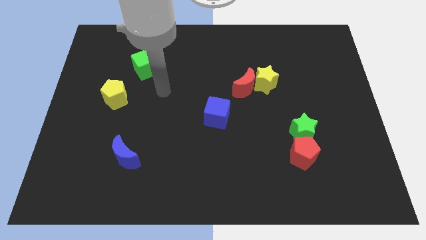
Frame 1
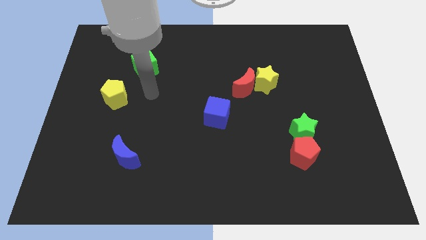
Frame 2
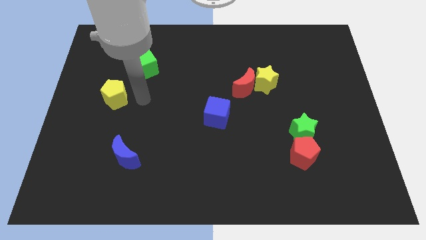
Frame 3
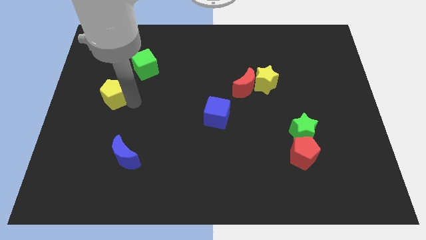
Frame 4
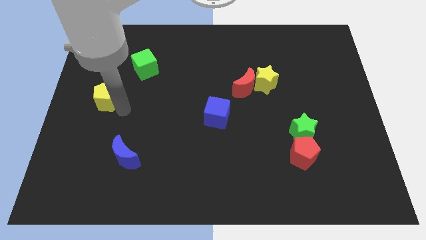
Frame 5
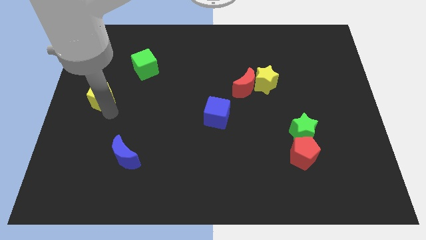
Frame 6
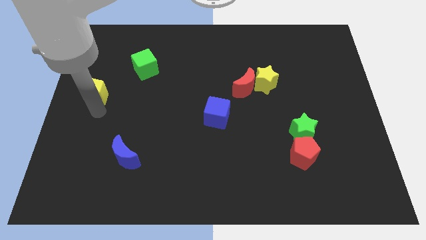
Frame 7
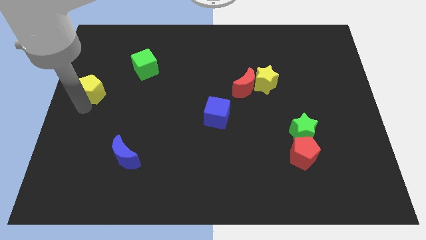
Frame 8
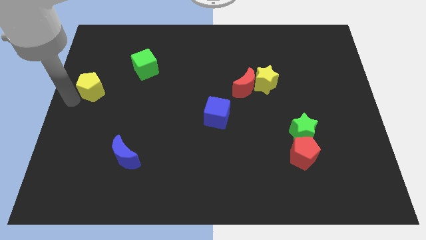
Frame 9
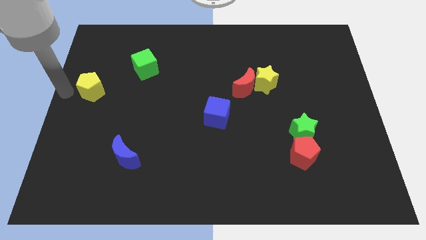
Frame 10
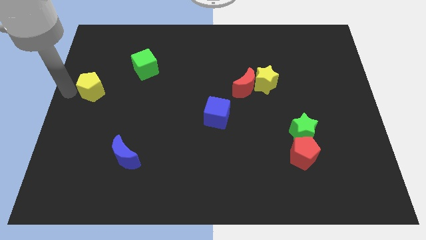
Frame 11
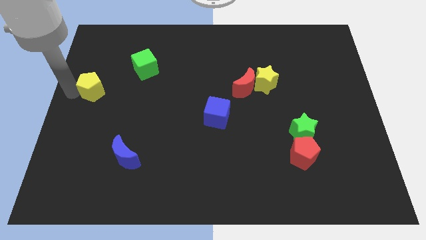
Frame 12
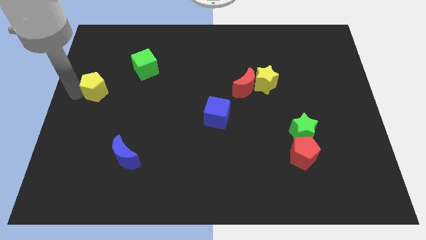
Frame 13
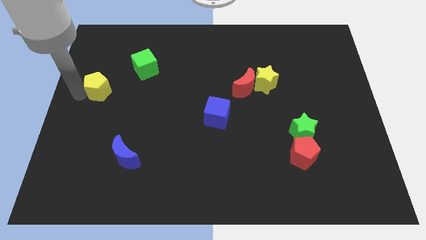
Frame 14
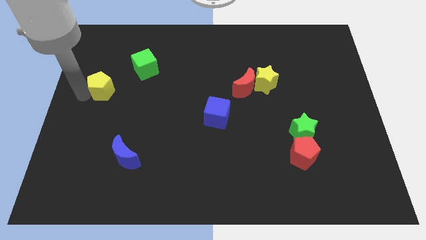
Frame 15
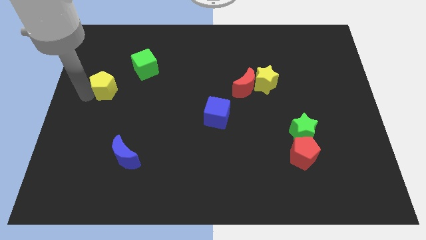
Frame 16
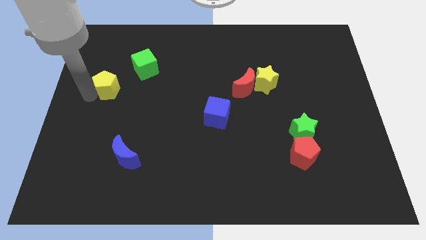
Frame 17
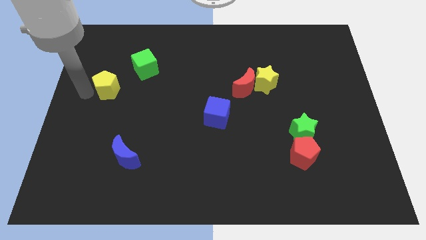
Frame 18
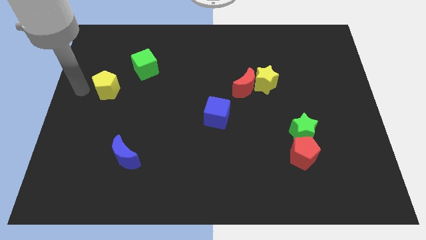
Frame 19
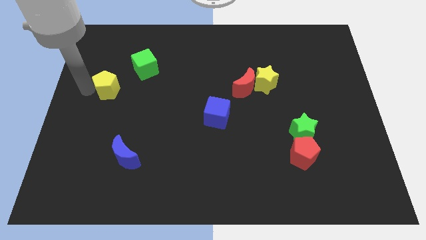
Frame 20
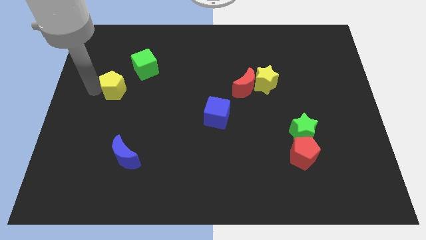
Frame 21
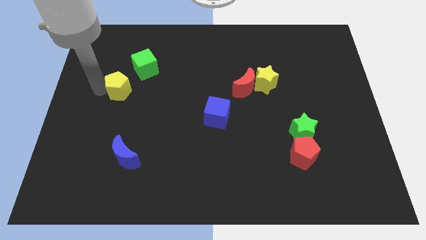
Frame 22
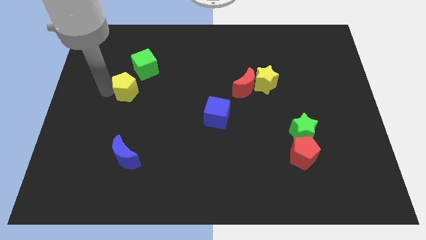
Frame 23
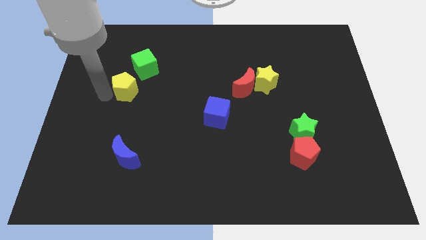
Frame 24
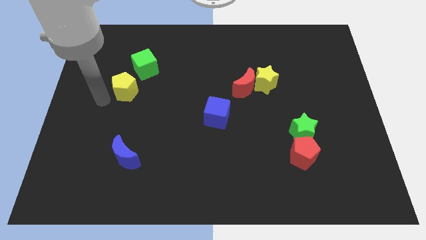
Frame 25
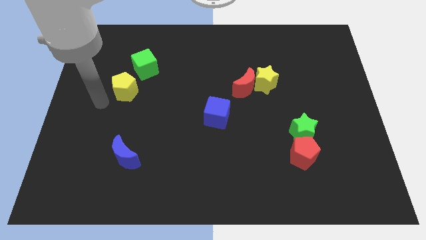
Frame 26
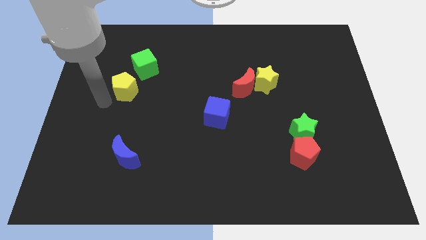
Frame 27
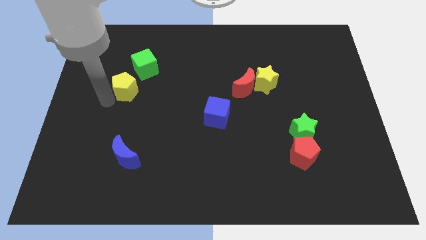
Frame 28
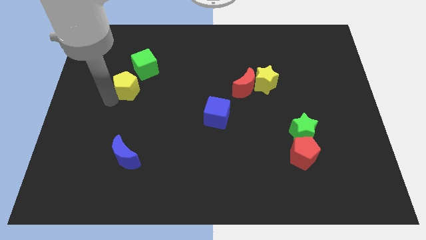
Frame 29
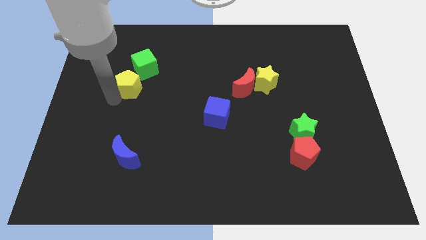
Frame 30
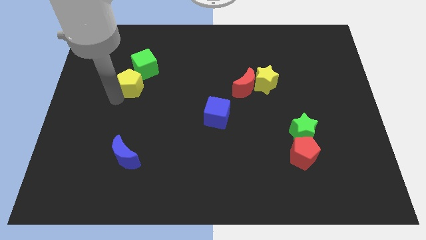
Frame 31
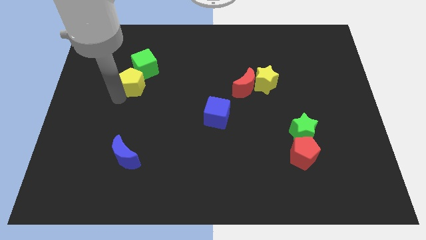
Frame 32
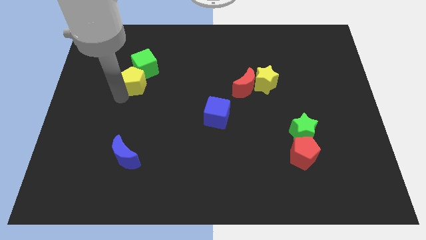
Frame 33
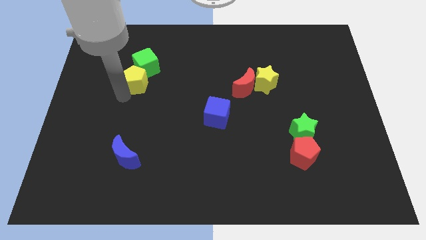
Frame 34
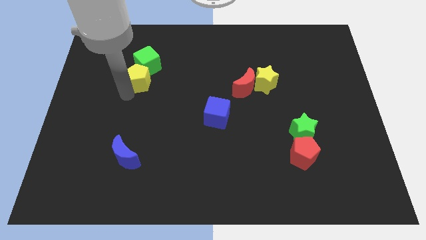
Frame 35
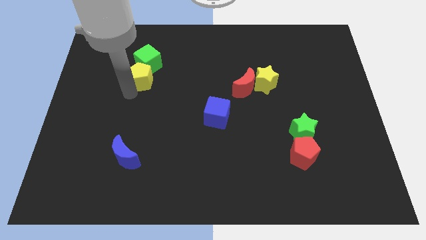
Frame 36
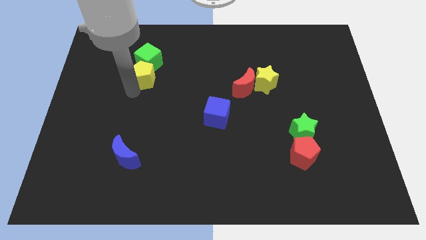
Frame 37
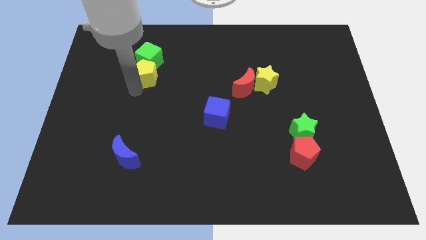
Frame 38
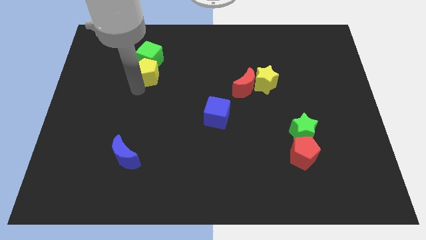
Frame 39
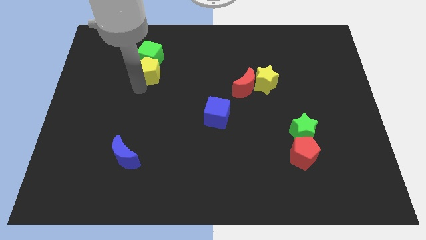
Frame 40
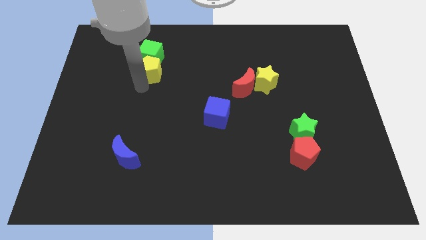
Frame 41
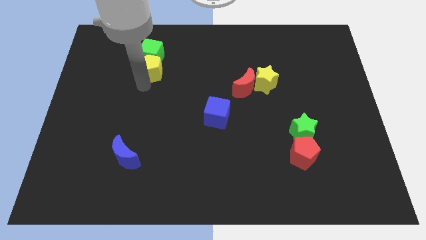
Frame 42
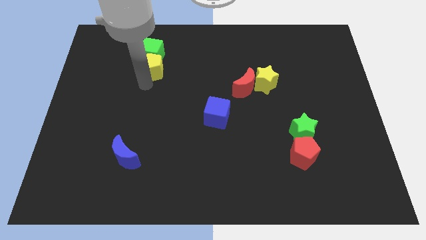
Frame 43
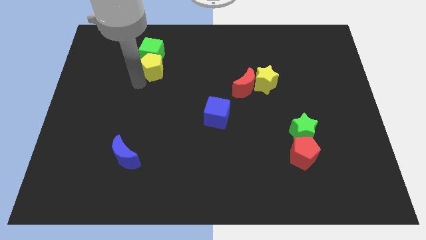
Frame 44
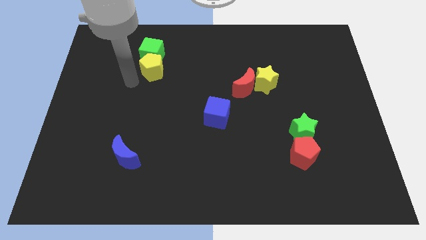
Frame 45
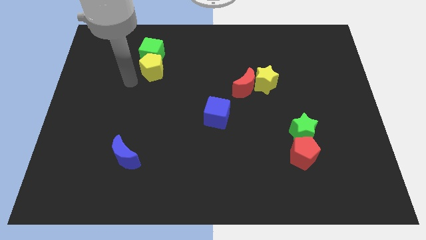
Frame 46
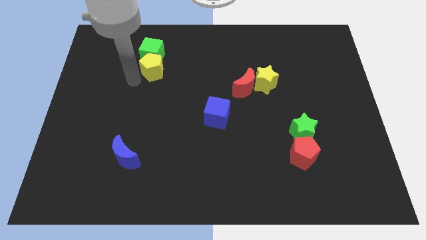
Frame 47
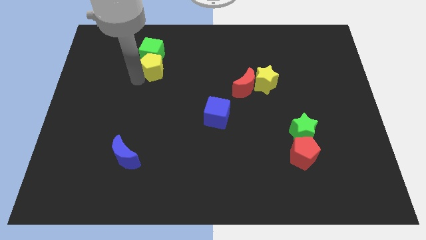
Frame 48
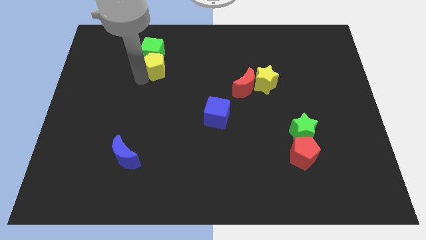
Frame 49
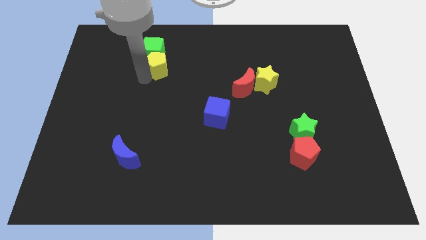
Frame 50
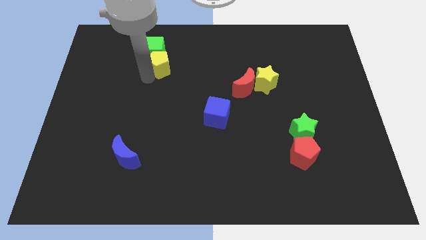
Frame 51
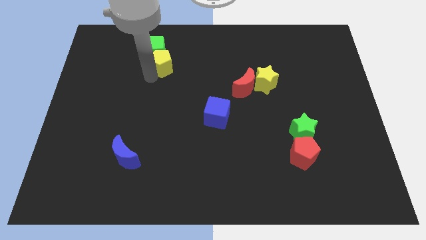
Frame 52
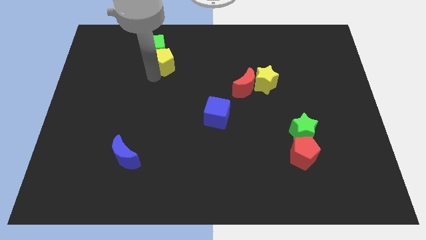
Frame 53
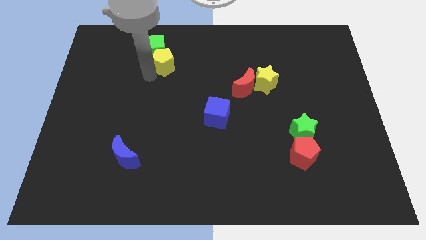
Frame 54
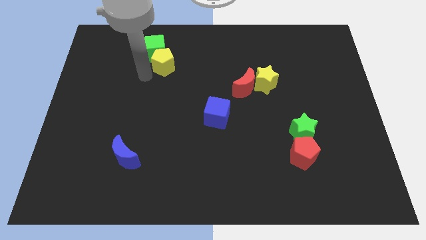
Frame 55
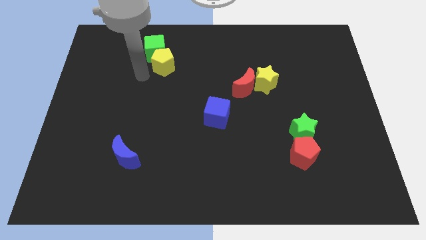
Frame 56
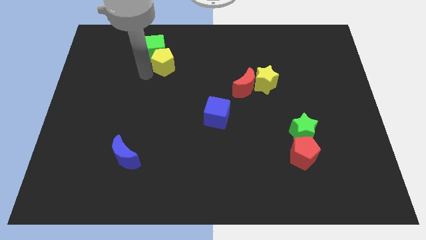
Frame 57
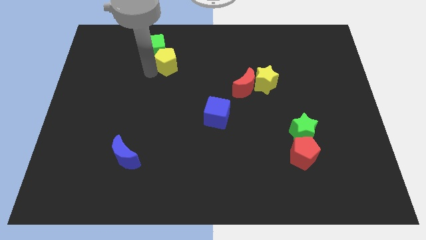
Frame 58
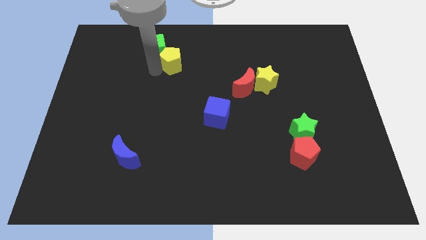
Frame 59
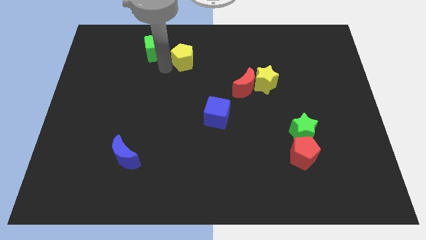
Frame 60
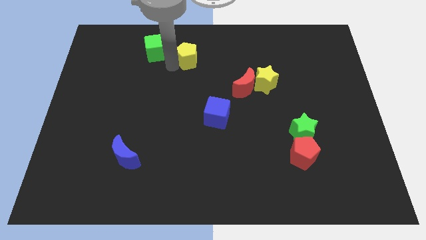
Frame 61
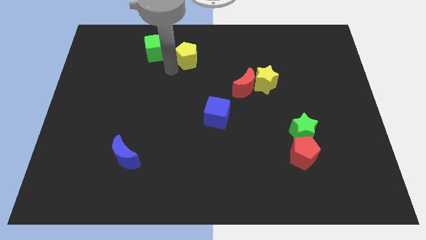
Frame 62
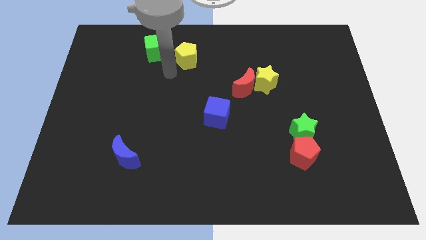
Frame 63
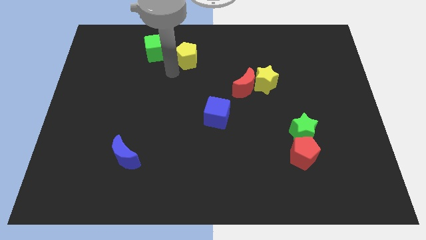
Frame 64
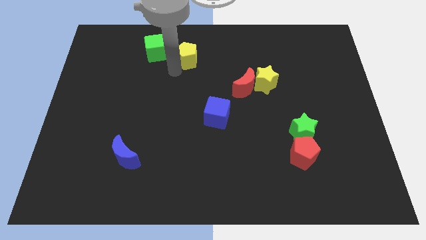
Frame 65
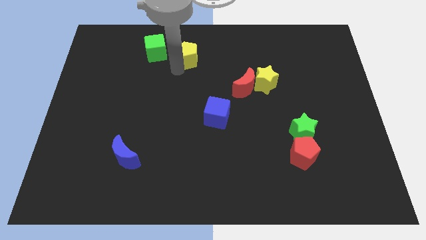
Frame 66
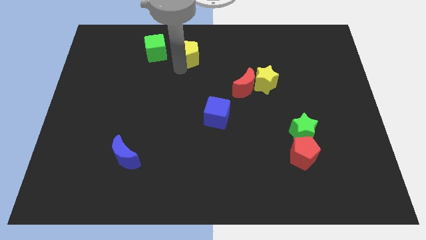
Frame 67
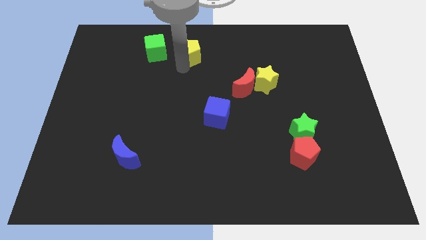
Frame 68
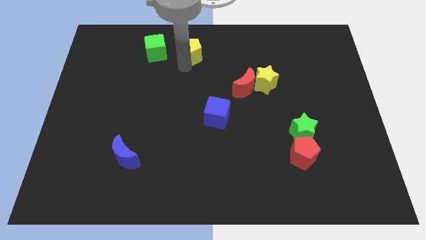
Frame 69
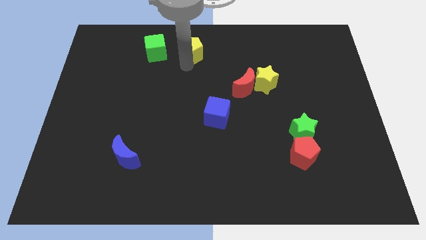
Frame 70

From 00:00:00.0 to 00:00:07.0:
put the yellow pentagon to the top

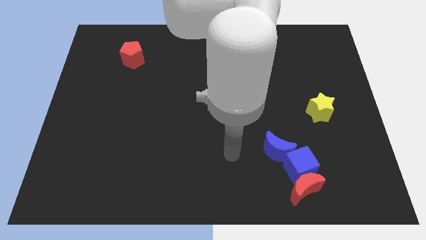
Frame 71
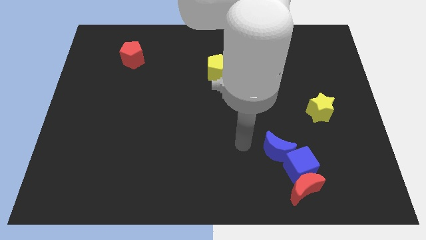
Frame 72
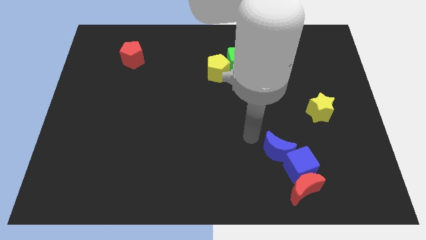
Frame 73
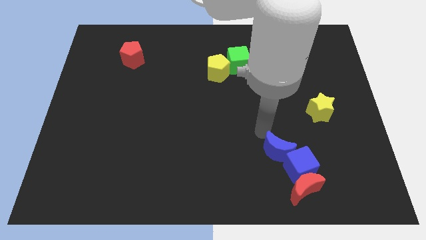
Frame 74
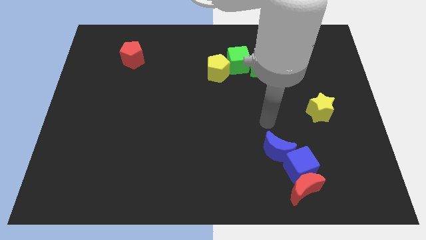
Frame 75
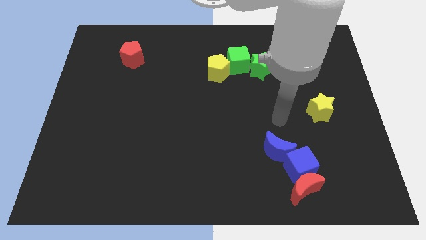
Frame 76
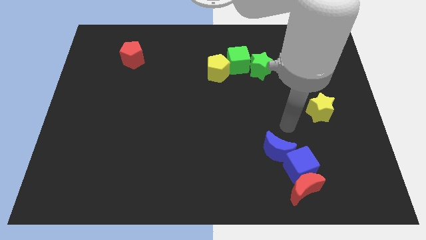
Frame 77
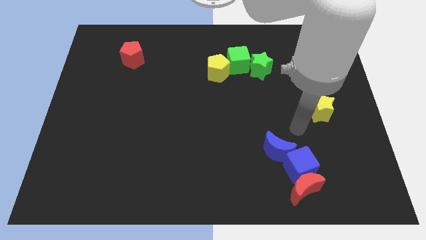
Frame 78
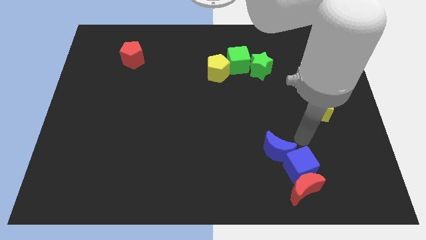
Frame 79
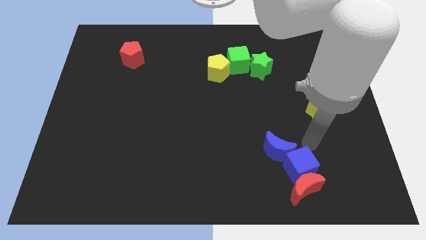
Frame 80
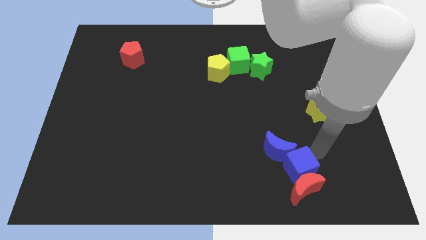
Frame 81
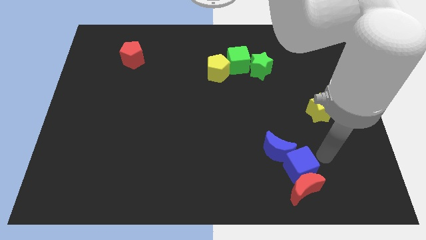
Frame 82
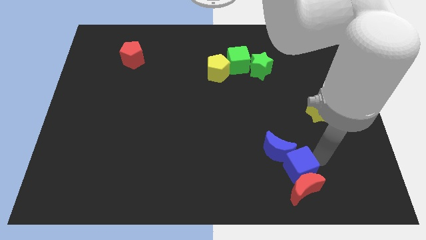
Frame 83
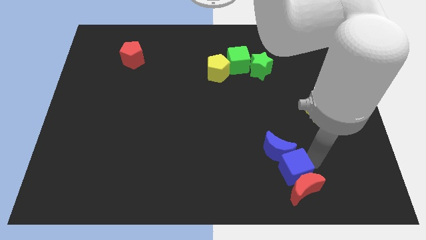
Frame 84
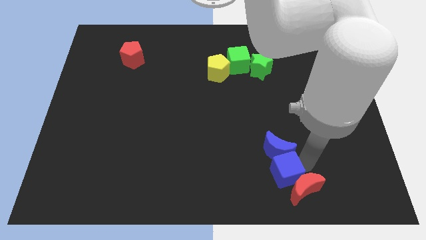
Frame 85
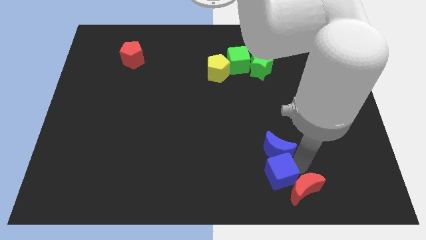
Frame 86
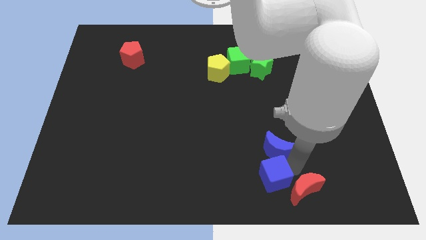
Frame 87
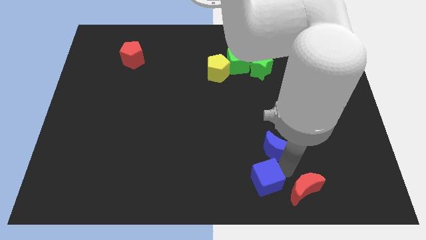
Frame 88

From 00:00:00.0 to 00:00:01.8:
move the blue cube to the bottom
